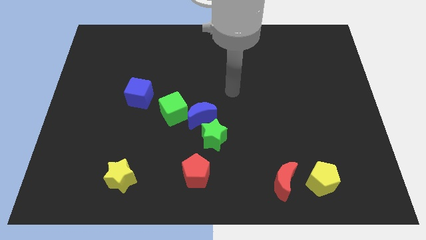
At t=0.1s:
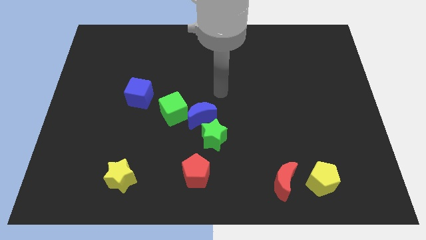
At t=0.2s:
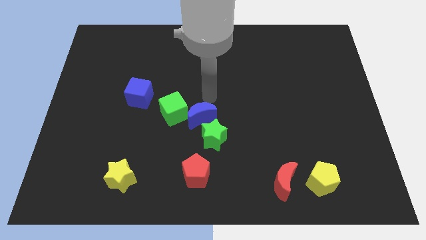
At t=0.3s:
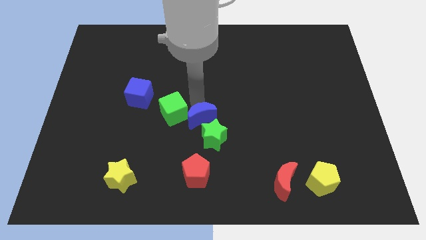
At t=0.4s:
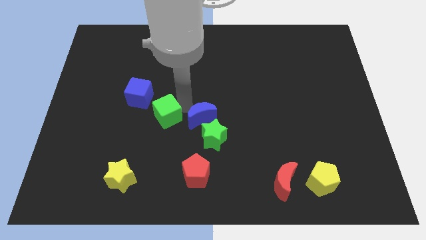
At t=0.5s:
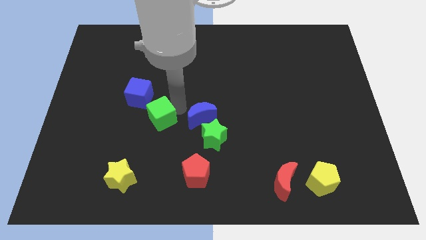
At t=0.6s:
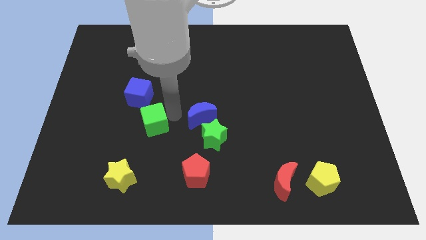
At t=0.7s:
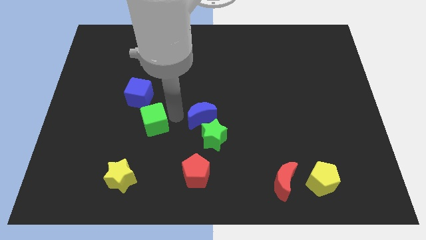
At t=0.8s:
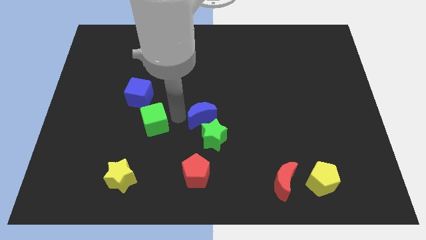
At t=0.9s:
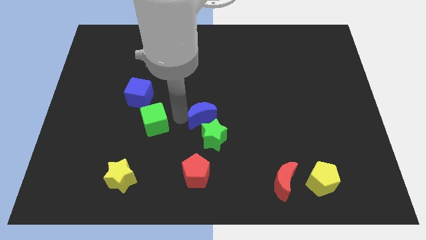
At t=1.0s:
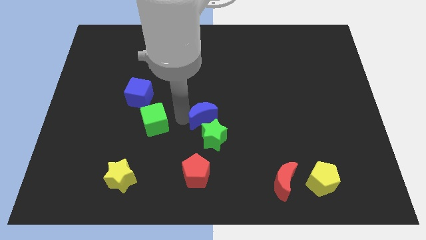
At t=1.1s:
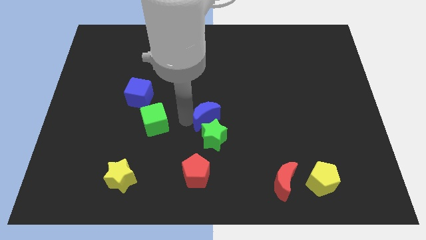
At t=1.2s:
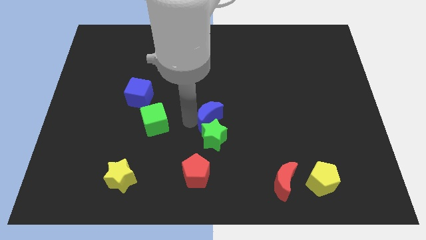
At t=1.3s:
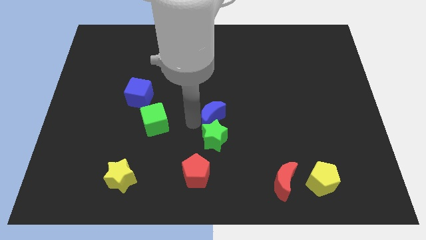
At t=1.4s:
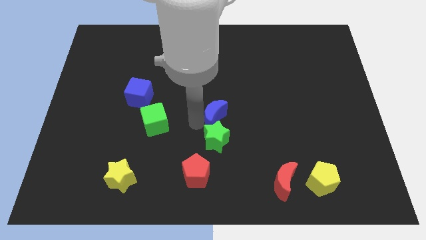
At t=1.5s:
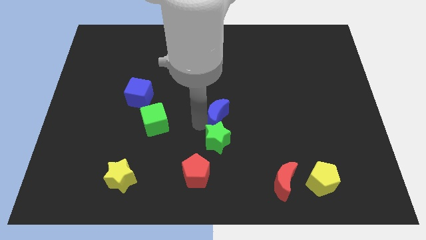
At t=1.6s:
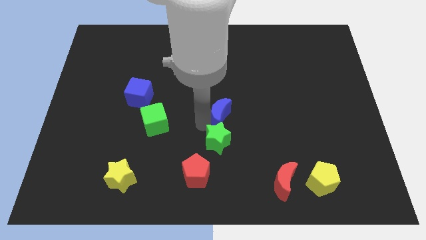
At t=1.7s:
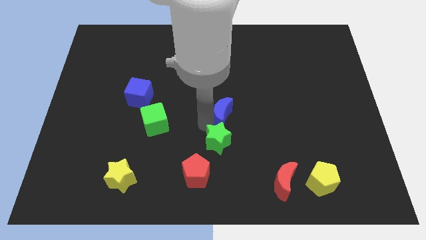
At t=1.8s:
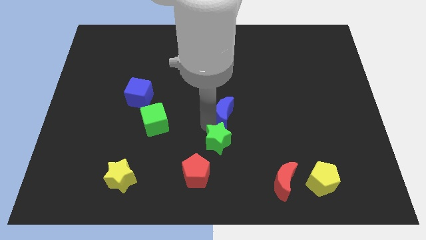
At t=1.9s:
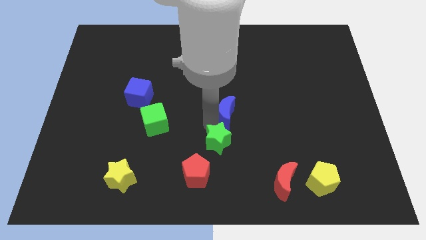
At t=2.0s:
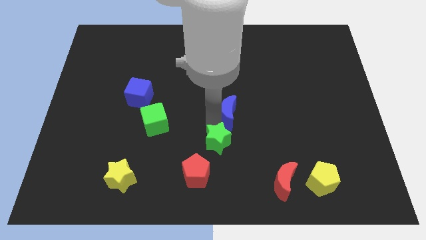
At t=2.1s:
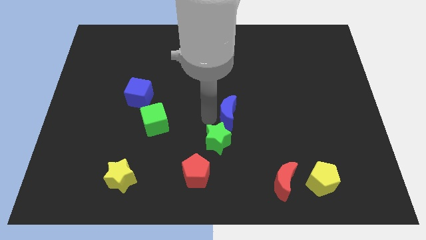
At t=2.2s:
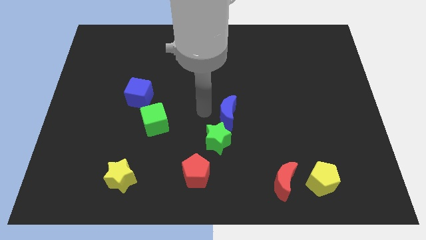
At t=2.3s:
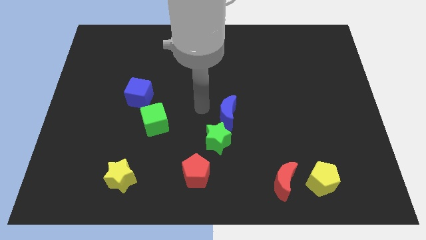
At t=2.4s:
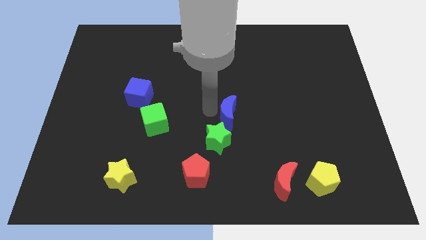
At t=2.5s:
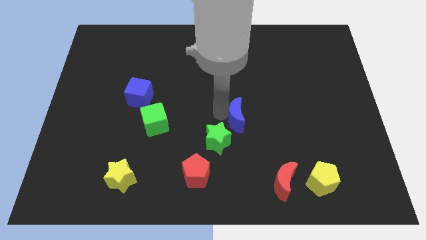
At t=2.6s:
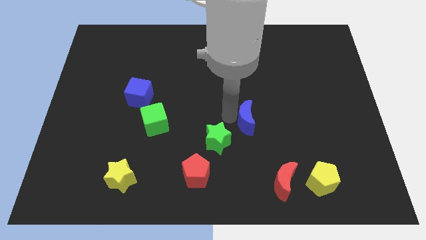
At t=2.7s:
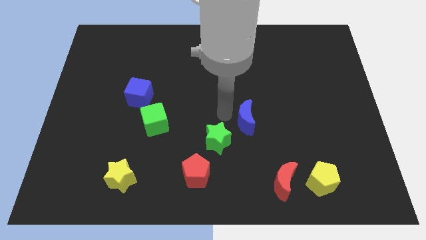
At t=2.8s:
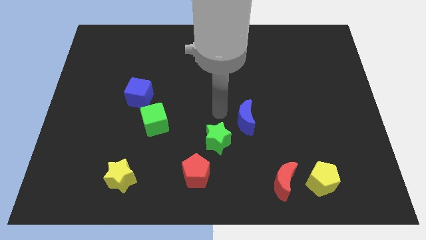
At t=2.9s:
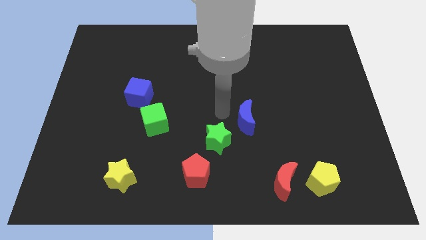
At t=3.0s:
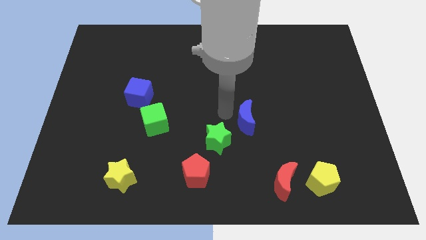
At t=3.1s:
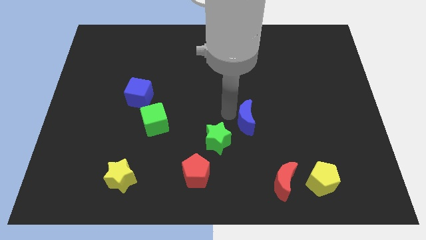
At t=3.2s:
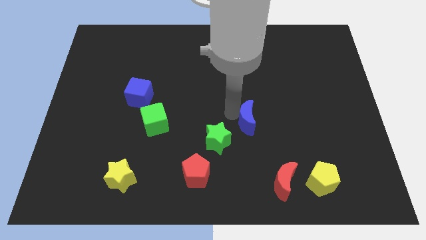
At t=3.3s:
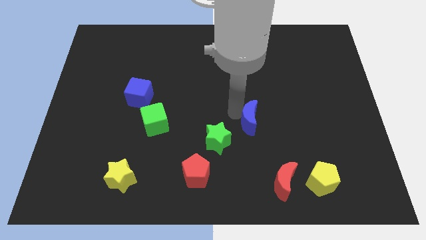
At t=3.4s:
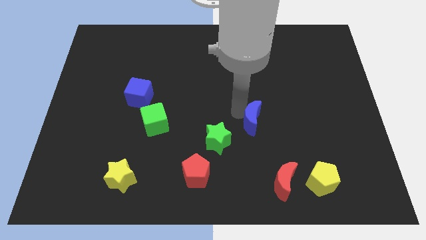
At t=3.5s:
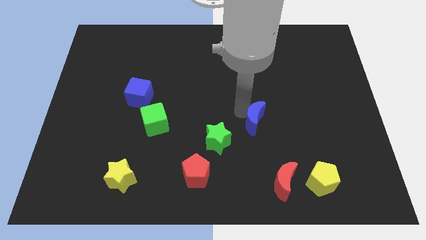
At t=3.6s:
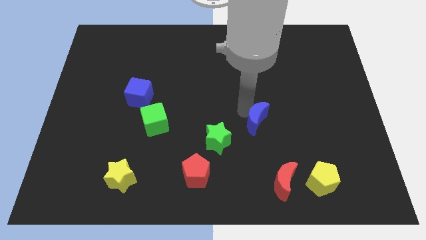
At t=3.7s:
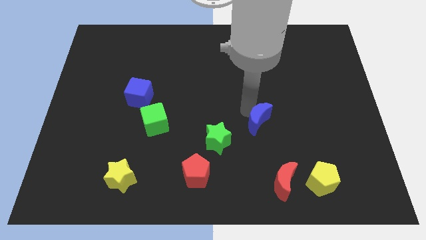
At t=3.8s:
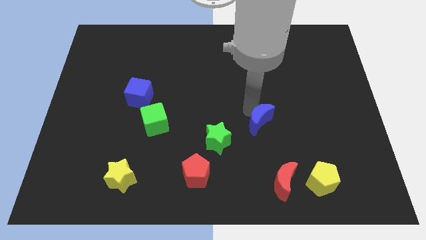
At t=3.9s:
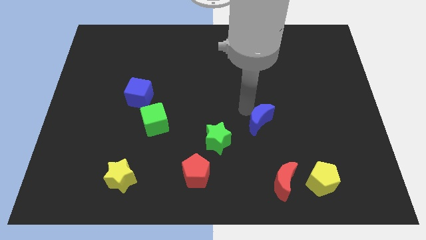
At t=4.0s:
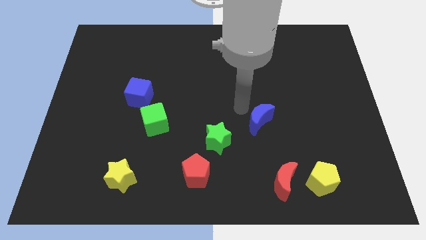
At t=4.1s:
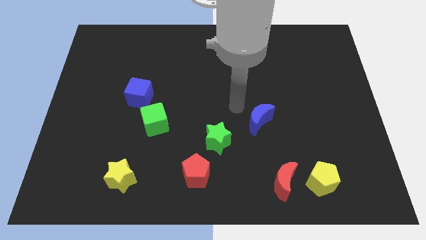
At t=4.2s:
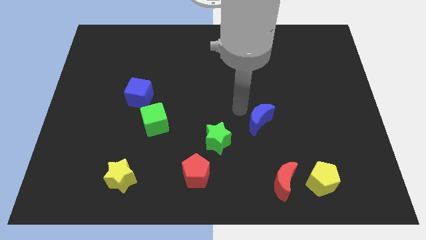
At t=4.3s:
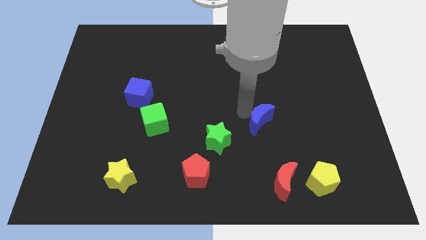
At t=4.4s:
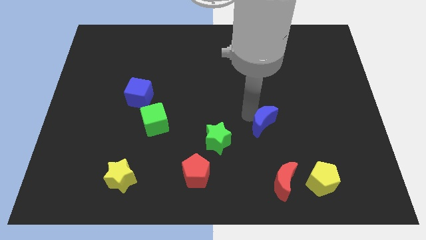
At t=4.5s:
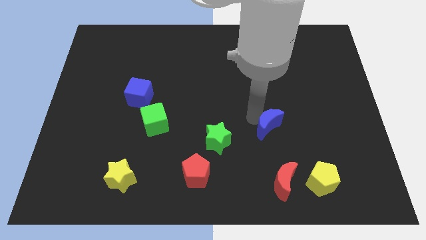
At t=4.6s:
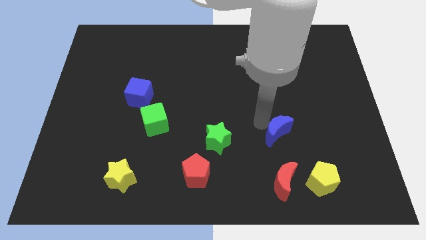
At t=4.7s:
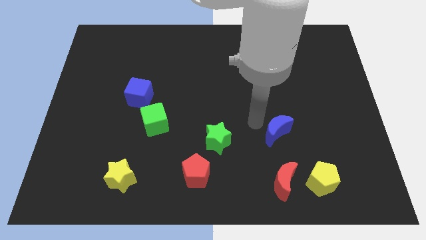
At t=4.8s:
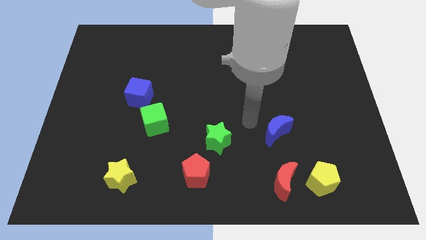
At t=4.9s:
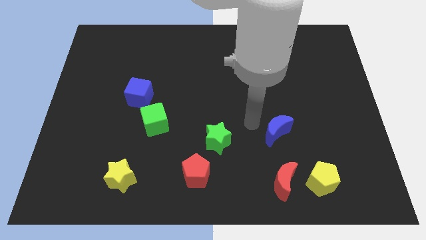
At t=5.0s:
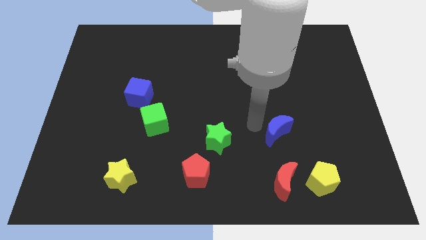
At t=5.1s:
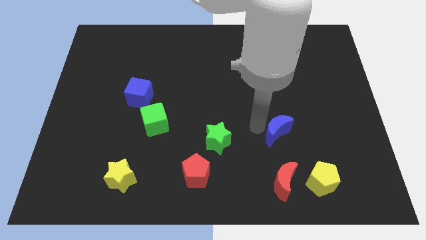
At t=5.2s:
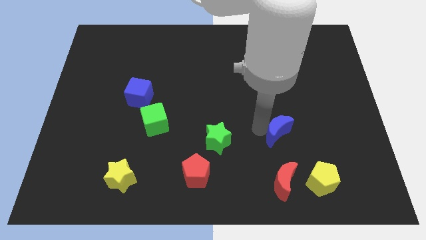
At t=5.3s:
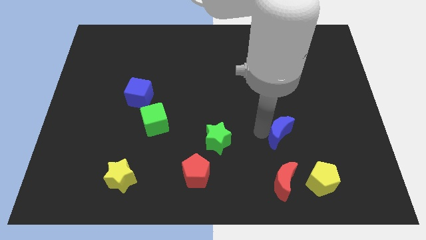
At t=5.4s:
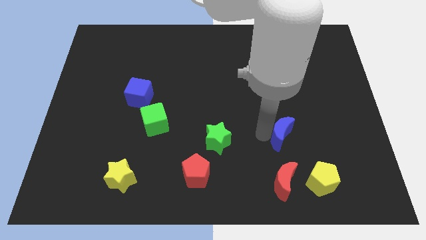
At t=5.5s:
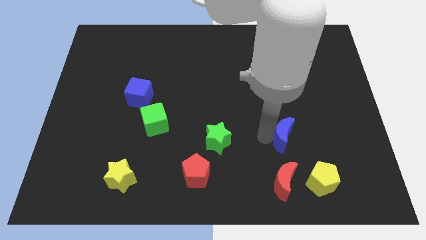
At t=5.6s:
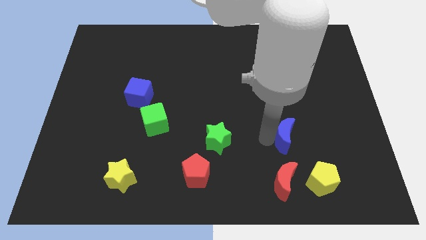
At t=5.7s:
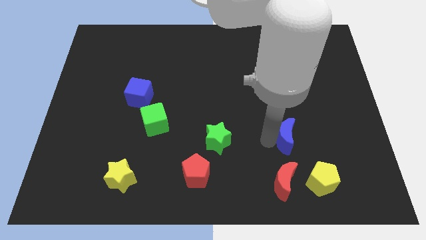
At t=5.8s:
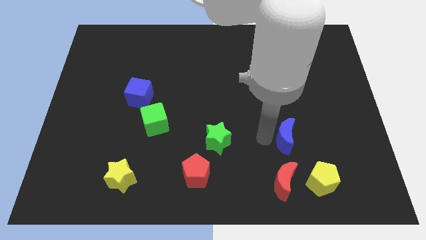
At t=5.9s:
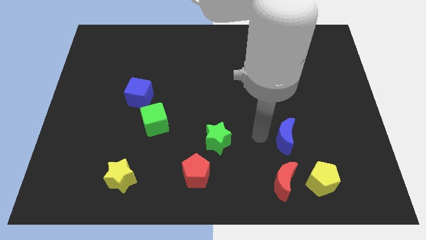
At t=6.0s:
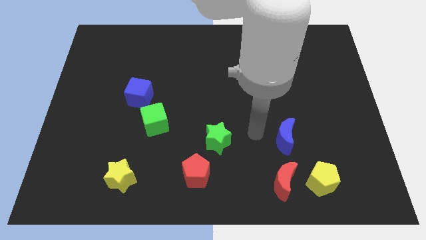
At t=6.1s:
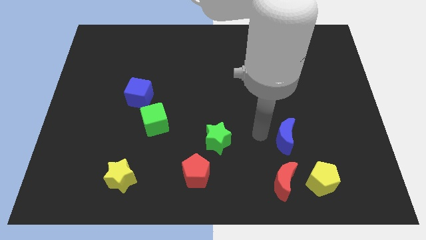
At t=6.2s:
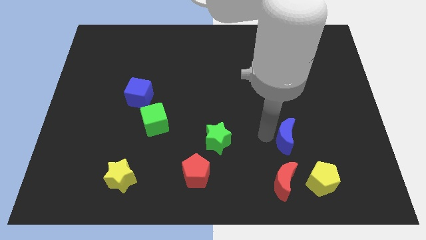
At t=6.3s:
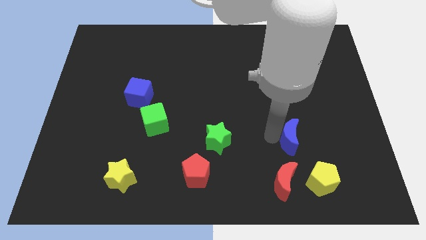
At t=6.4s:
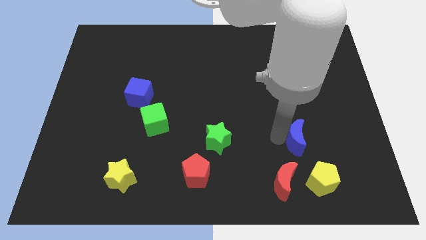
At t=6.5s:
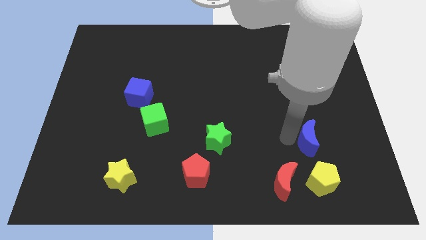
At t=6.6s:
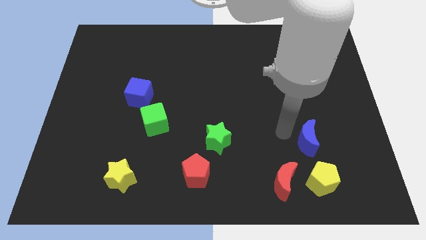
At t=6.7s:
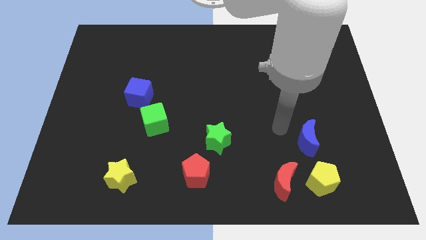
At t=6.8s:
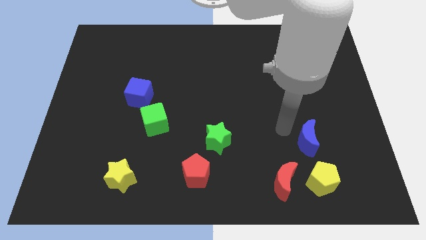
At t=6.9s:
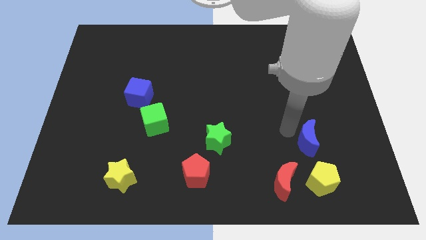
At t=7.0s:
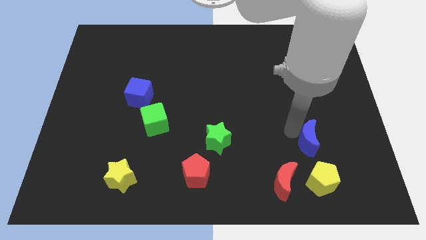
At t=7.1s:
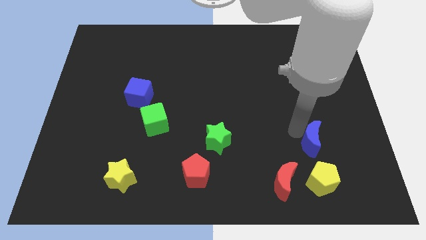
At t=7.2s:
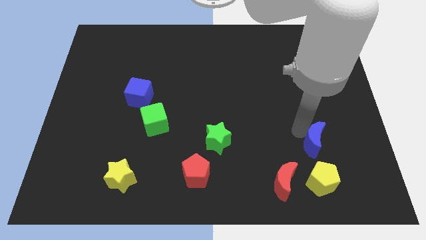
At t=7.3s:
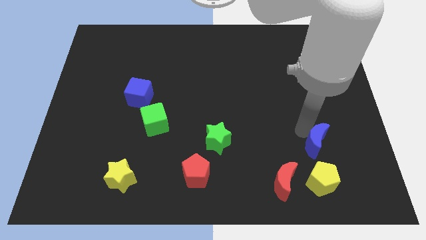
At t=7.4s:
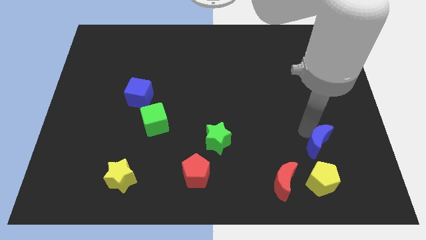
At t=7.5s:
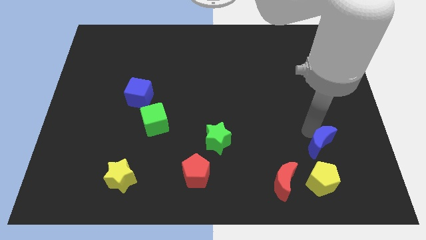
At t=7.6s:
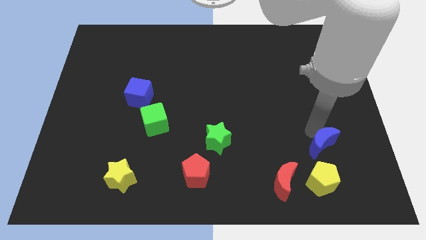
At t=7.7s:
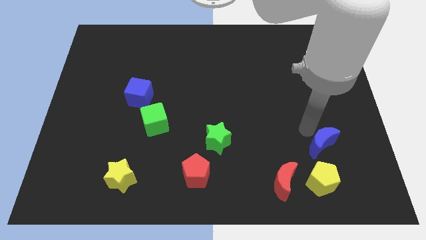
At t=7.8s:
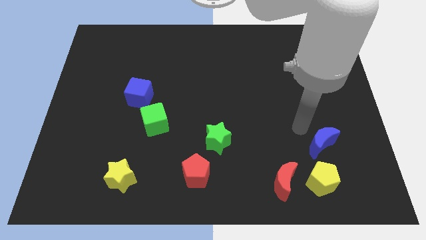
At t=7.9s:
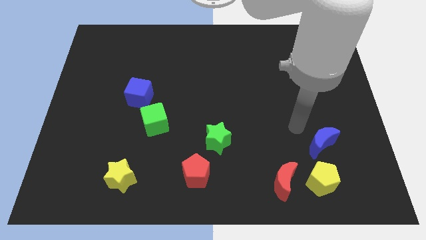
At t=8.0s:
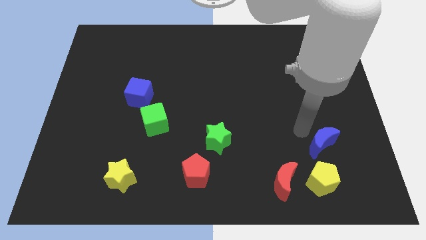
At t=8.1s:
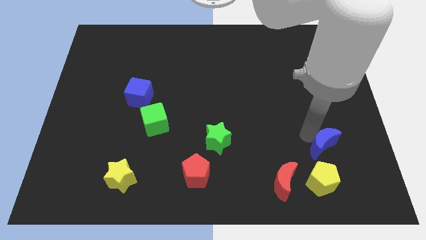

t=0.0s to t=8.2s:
put the blue moon diagonally up and to the right of the yellow pentagon
